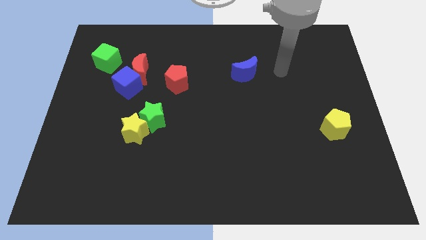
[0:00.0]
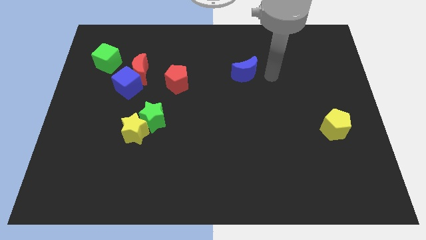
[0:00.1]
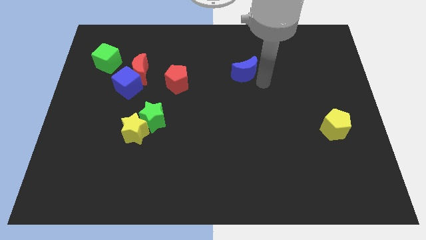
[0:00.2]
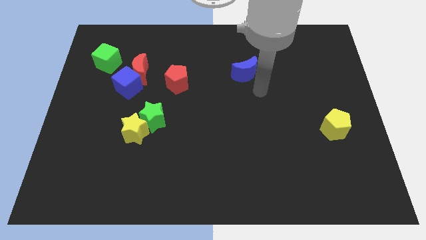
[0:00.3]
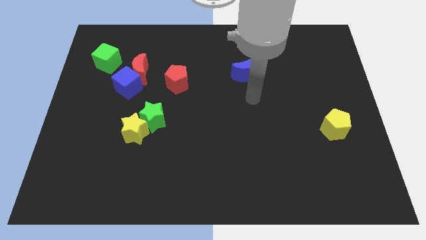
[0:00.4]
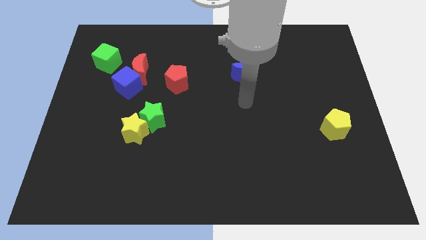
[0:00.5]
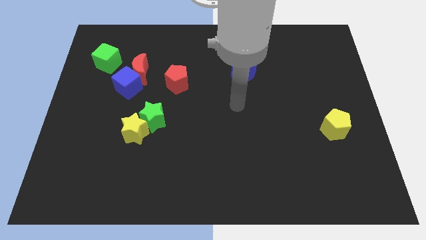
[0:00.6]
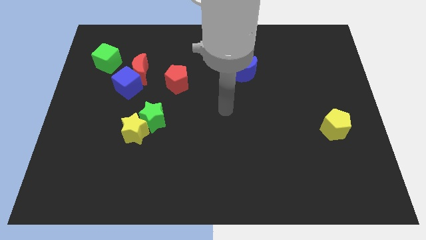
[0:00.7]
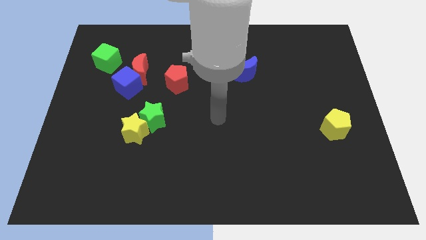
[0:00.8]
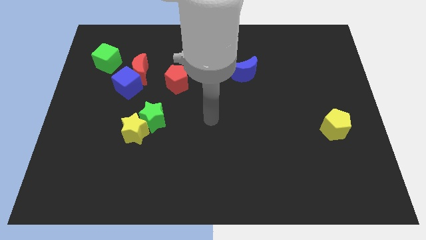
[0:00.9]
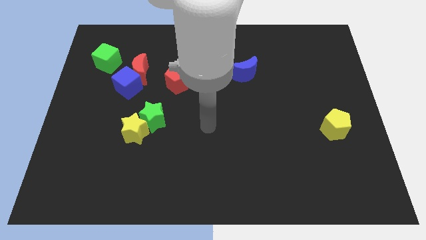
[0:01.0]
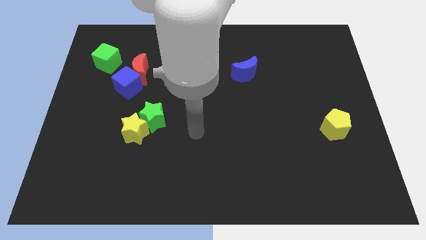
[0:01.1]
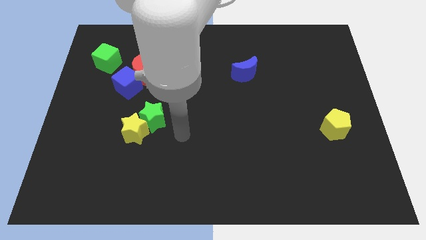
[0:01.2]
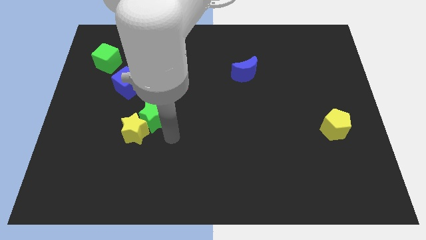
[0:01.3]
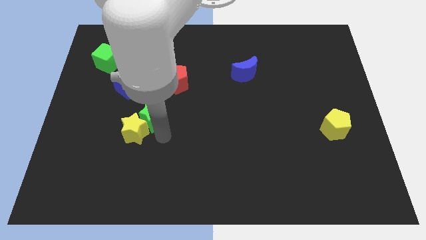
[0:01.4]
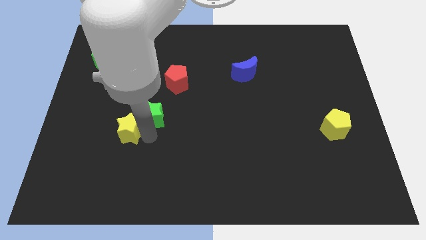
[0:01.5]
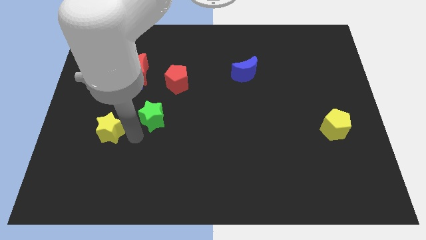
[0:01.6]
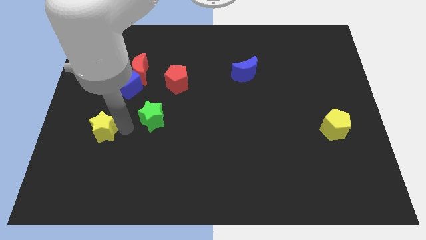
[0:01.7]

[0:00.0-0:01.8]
separate the green star from the yellow star

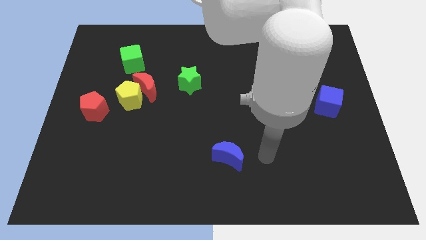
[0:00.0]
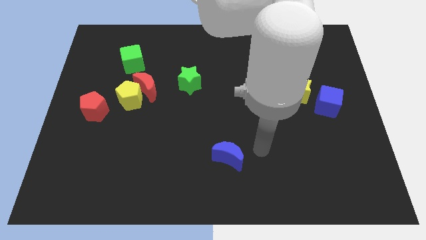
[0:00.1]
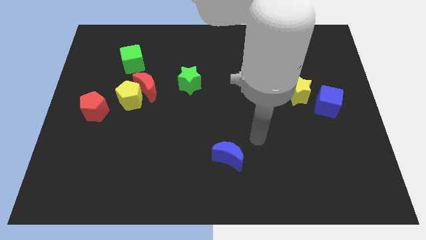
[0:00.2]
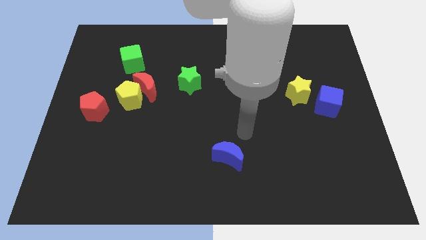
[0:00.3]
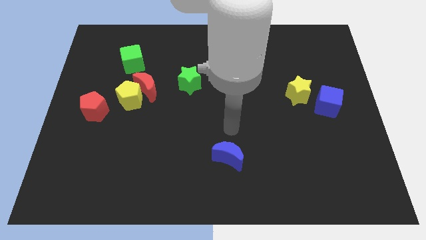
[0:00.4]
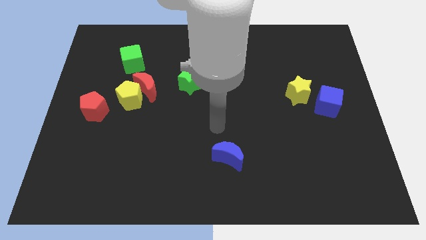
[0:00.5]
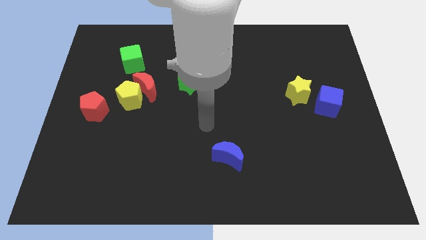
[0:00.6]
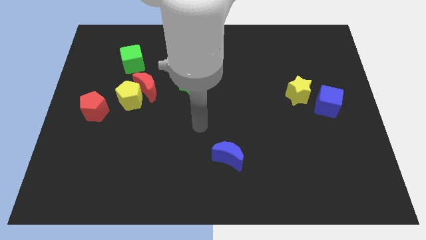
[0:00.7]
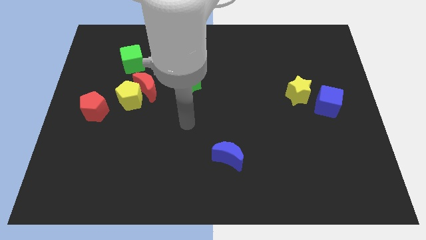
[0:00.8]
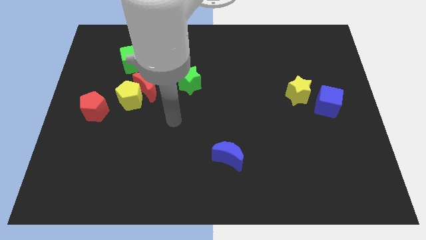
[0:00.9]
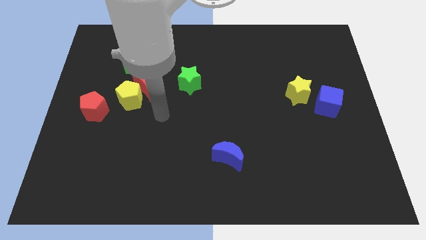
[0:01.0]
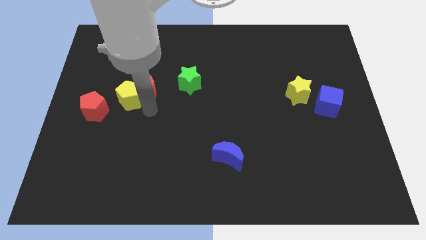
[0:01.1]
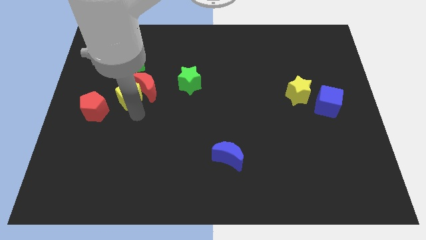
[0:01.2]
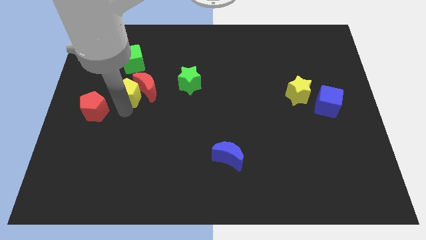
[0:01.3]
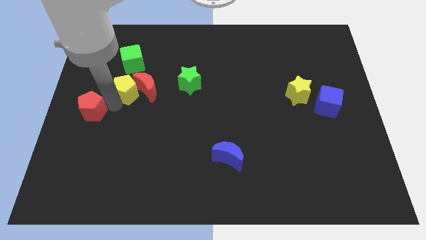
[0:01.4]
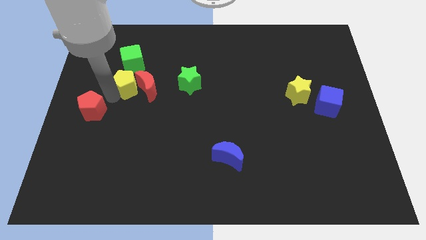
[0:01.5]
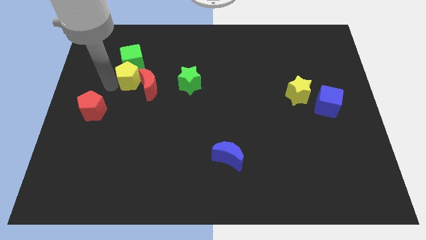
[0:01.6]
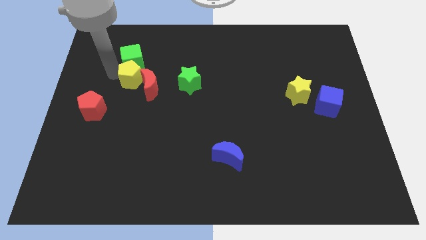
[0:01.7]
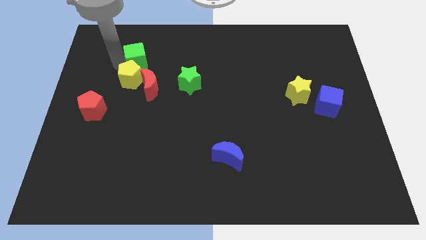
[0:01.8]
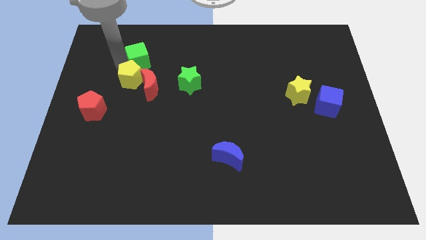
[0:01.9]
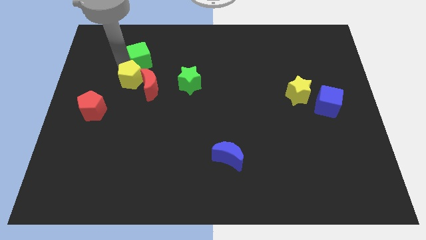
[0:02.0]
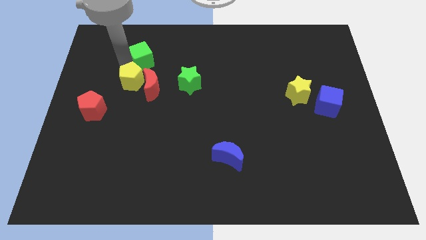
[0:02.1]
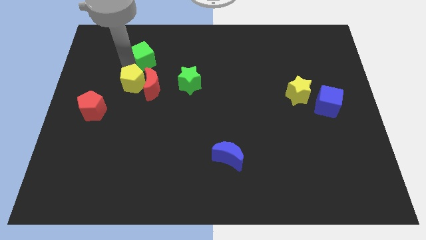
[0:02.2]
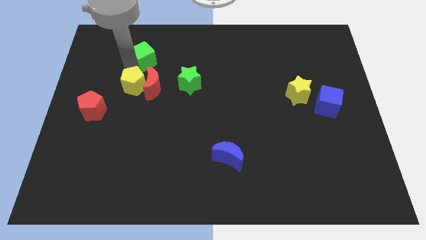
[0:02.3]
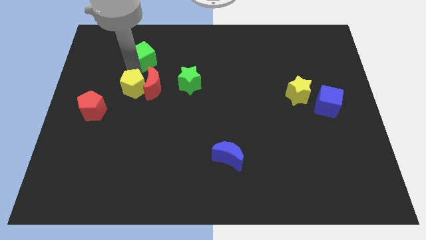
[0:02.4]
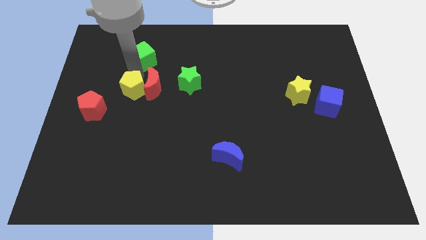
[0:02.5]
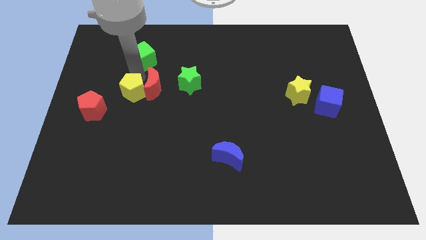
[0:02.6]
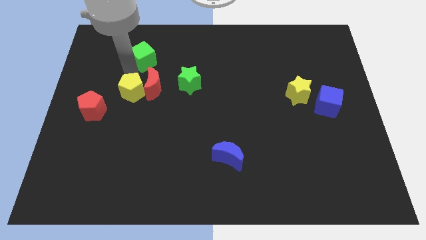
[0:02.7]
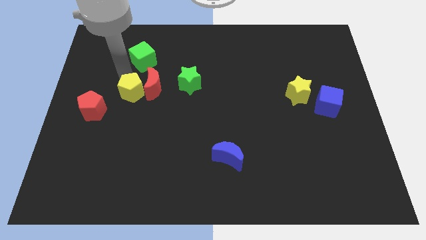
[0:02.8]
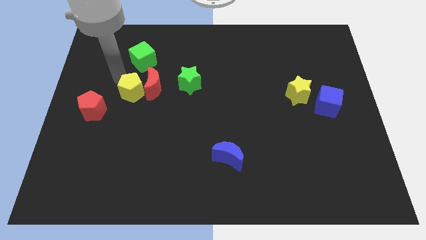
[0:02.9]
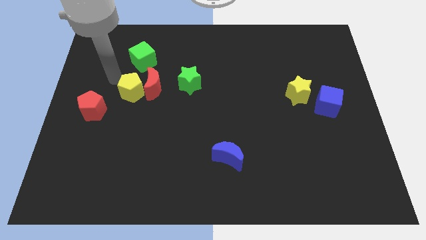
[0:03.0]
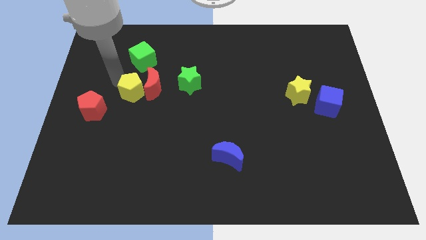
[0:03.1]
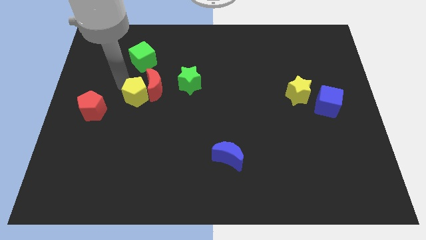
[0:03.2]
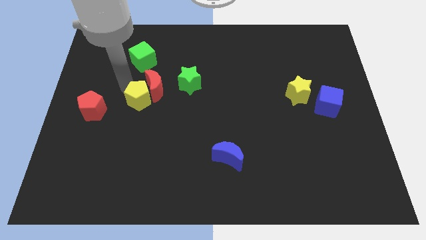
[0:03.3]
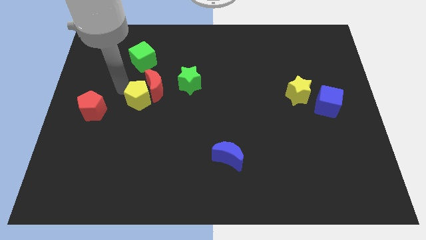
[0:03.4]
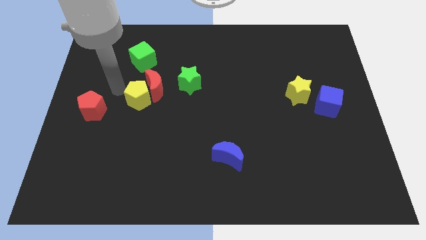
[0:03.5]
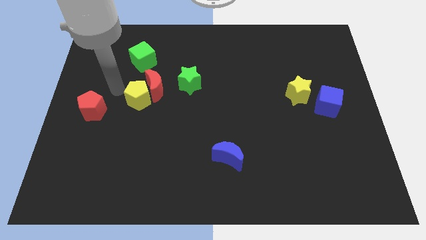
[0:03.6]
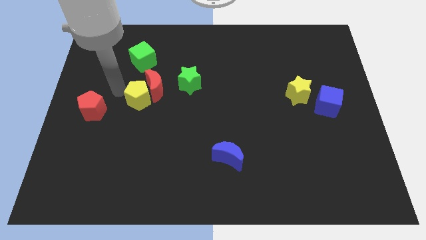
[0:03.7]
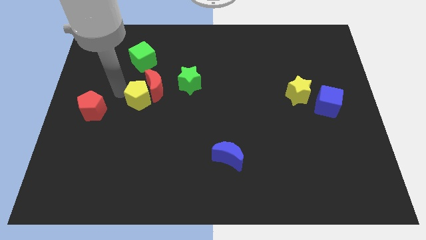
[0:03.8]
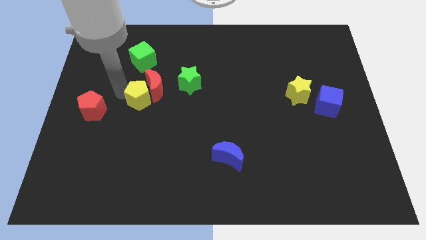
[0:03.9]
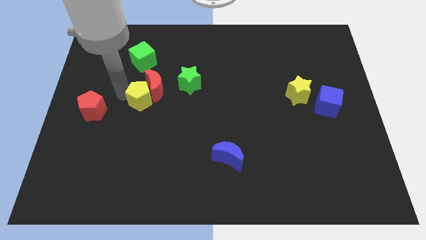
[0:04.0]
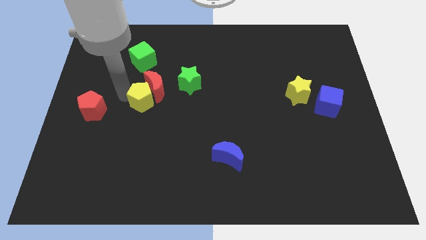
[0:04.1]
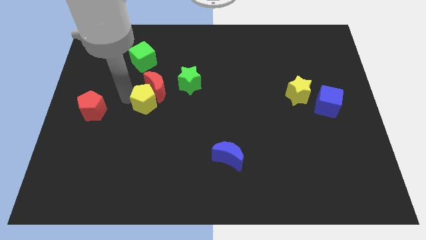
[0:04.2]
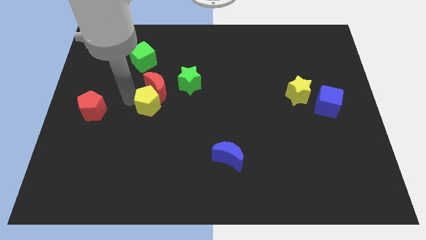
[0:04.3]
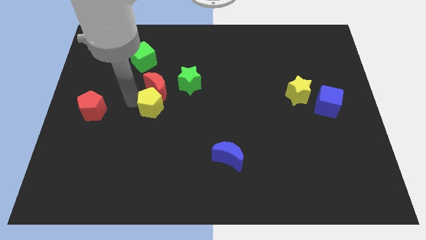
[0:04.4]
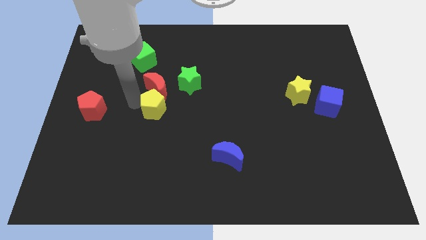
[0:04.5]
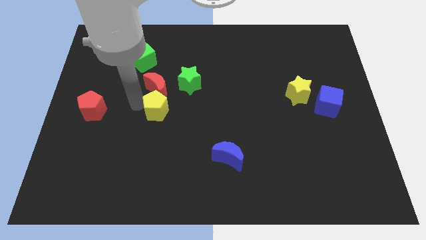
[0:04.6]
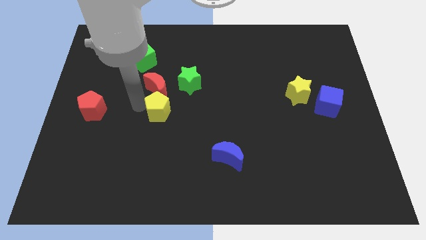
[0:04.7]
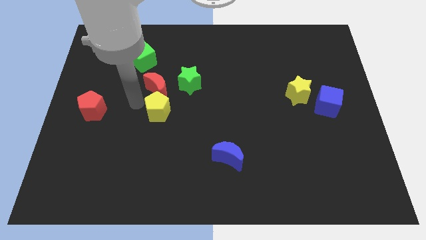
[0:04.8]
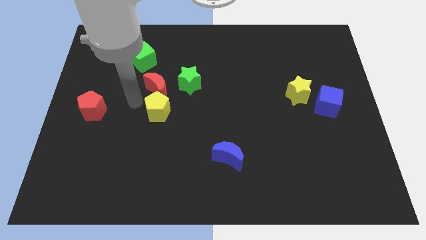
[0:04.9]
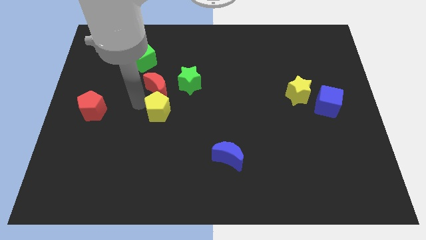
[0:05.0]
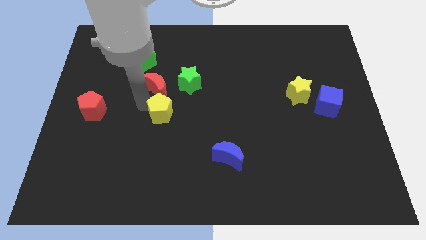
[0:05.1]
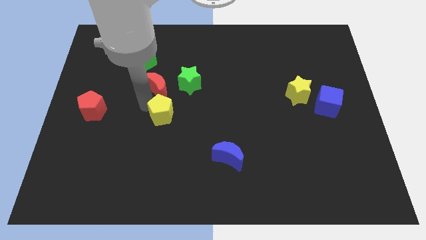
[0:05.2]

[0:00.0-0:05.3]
move the yellow pentagon away from the red moon and red pentagon

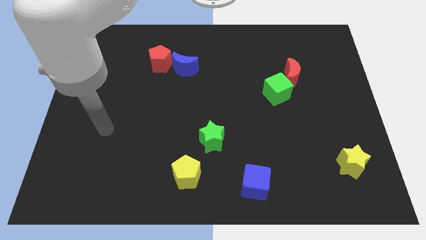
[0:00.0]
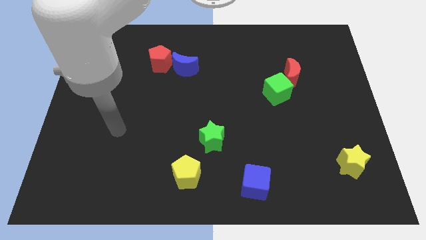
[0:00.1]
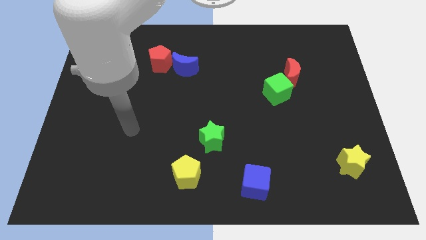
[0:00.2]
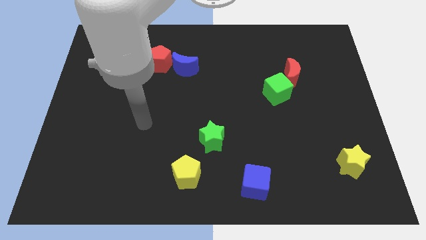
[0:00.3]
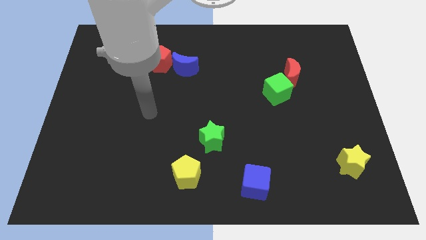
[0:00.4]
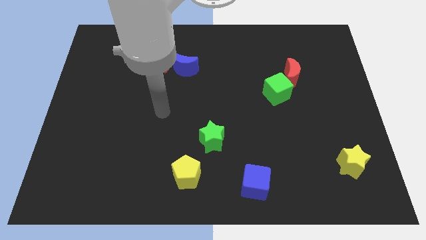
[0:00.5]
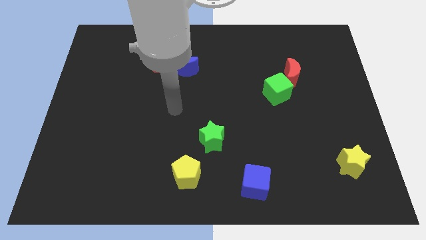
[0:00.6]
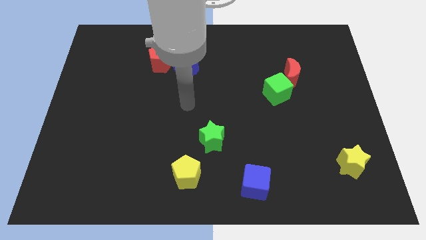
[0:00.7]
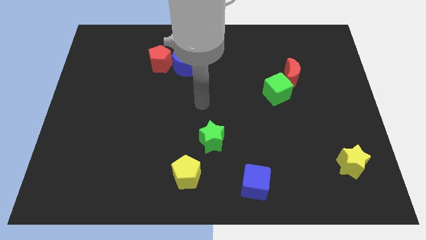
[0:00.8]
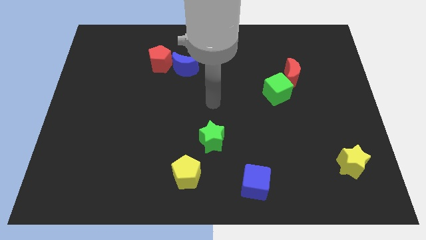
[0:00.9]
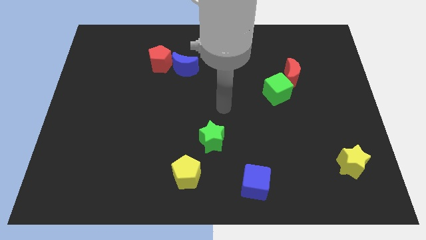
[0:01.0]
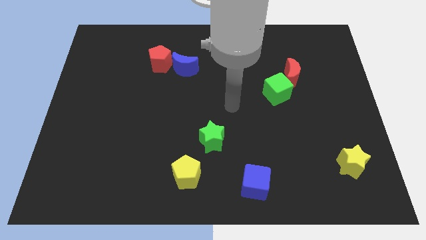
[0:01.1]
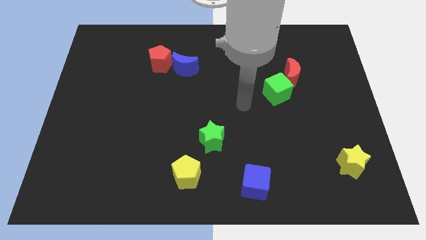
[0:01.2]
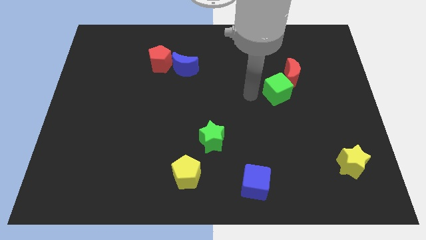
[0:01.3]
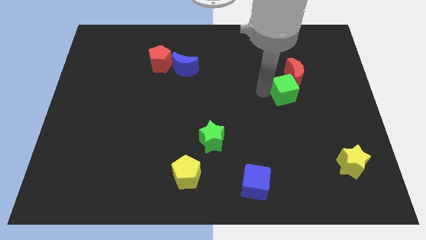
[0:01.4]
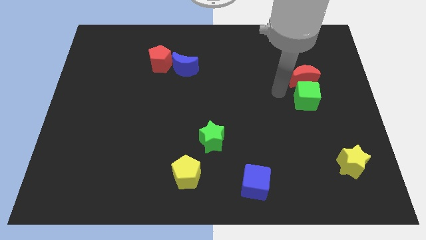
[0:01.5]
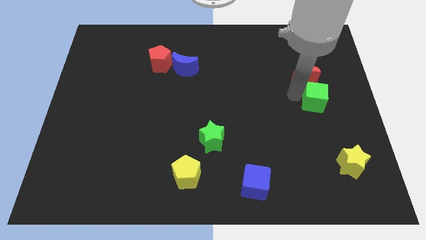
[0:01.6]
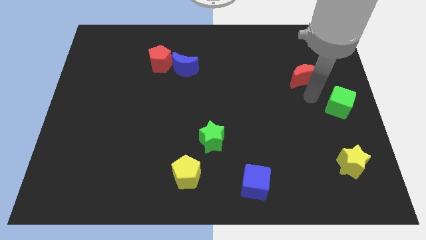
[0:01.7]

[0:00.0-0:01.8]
move the red moon away from the green cube

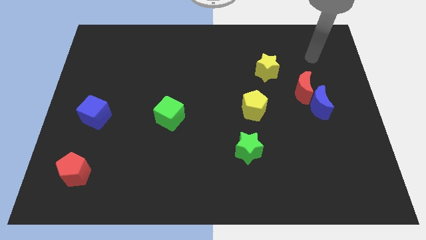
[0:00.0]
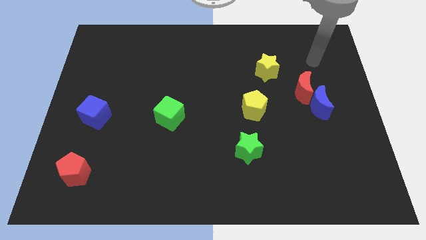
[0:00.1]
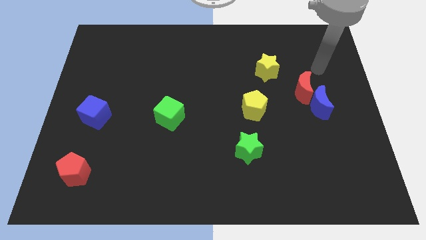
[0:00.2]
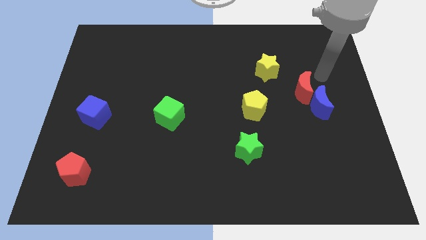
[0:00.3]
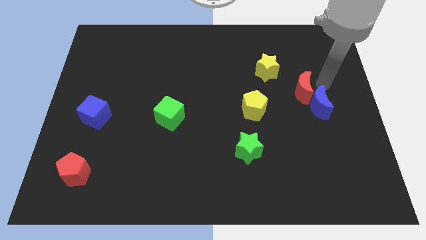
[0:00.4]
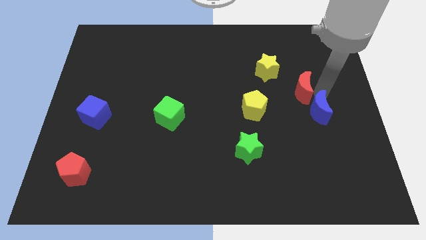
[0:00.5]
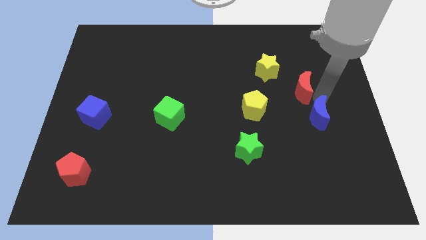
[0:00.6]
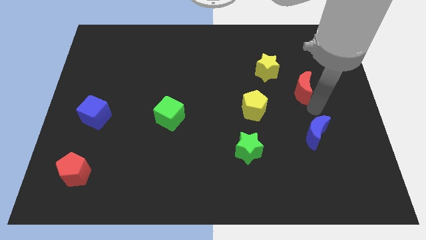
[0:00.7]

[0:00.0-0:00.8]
move the red moon away from the blue moon
